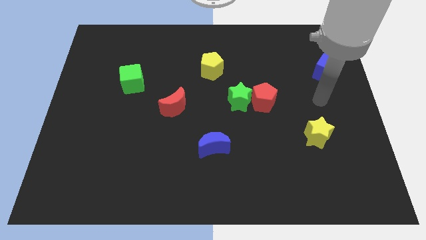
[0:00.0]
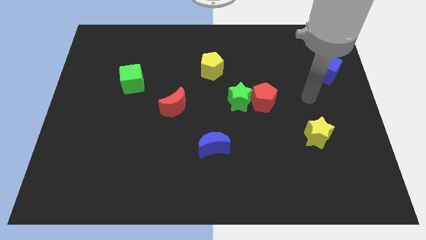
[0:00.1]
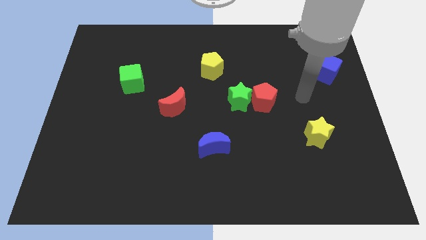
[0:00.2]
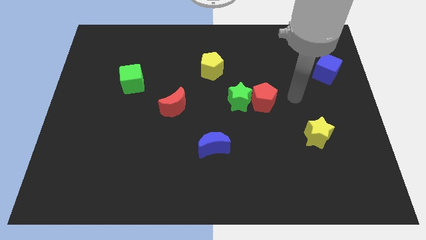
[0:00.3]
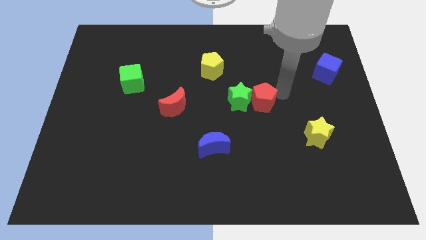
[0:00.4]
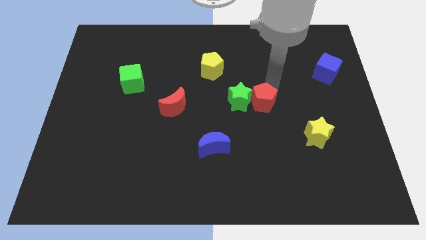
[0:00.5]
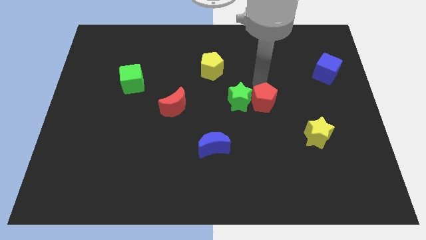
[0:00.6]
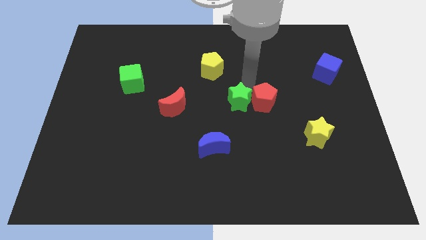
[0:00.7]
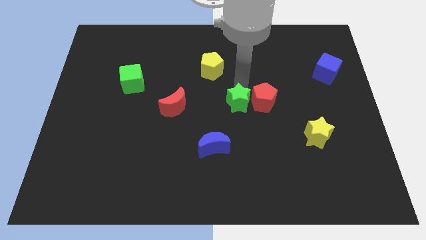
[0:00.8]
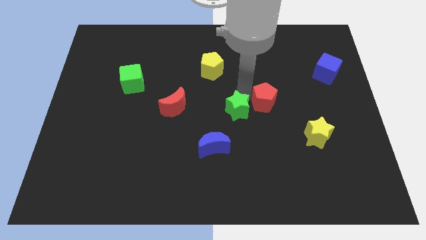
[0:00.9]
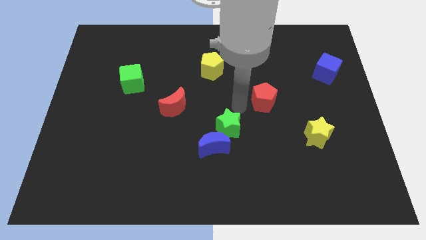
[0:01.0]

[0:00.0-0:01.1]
move the red pentagon away from the green star

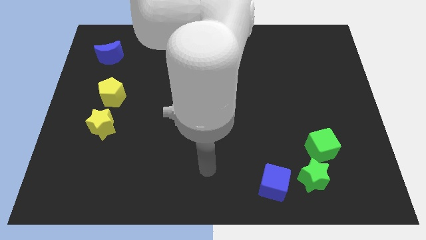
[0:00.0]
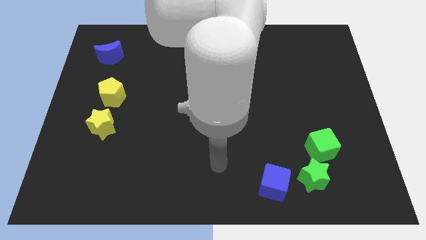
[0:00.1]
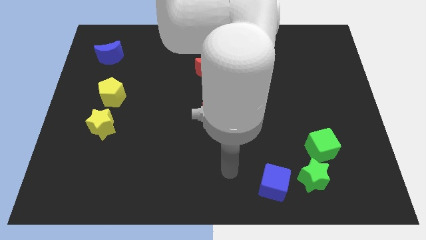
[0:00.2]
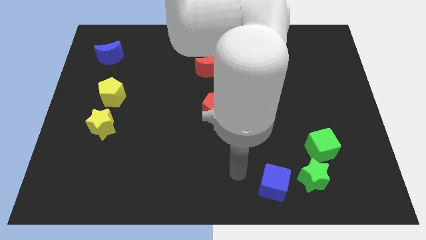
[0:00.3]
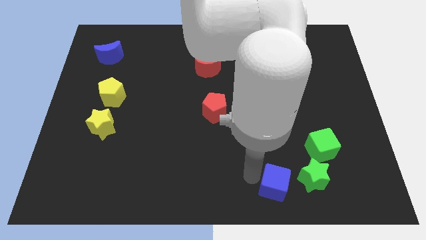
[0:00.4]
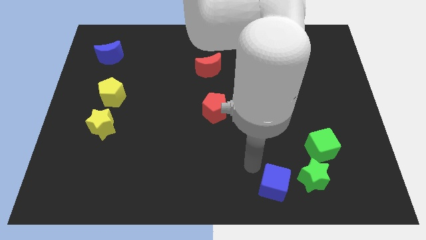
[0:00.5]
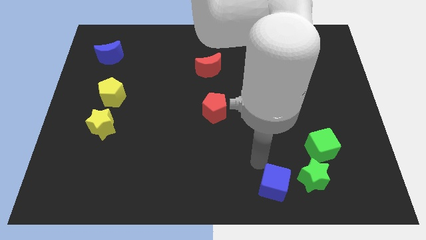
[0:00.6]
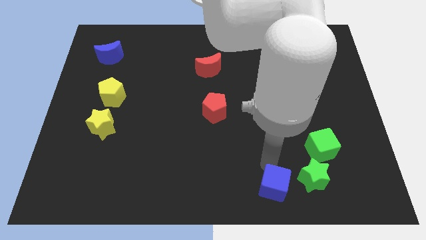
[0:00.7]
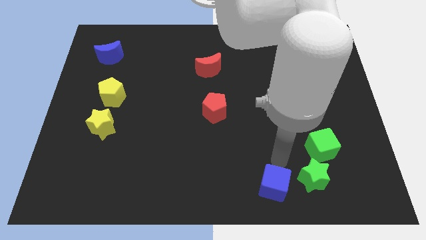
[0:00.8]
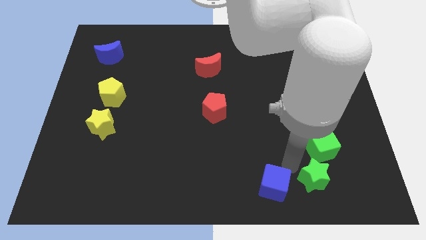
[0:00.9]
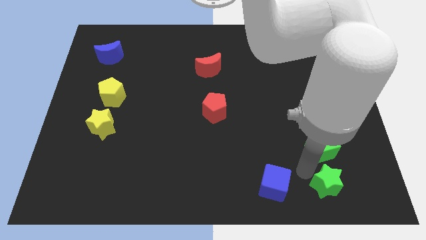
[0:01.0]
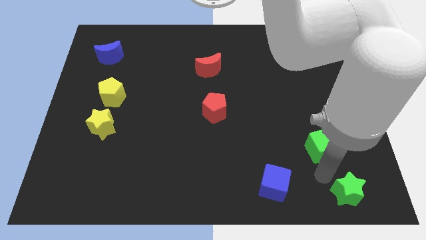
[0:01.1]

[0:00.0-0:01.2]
separate the green cube from the green star

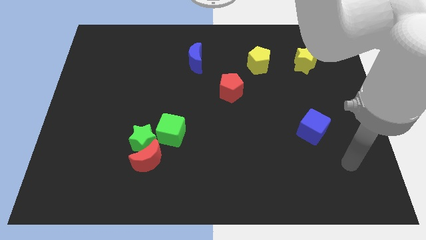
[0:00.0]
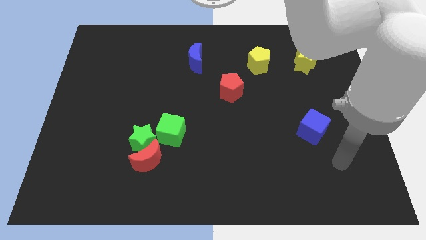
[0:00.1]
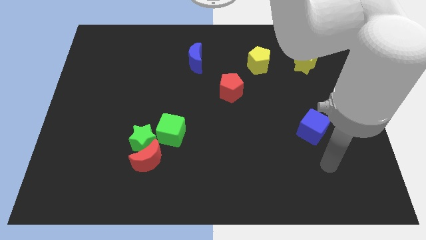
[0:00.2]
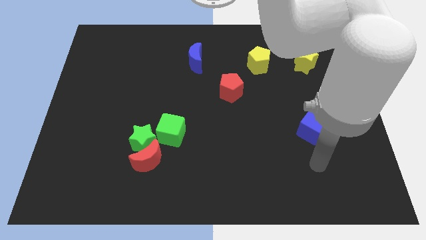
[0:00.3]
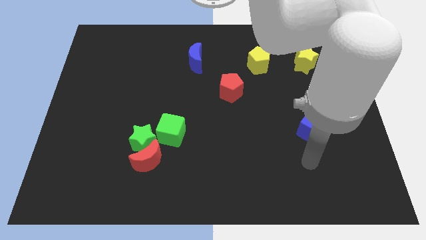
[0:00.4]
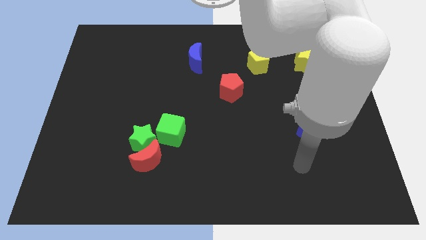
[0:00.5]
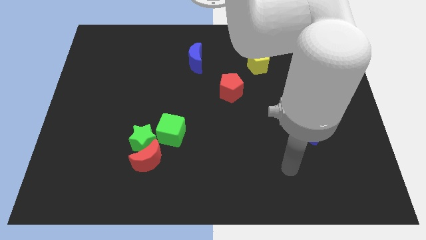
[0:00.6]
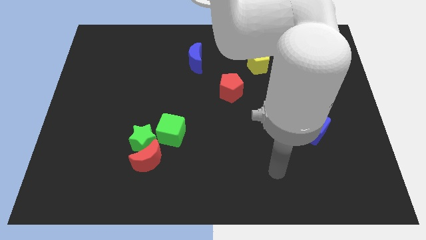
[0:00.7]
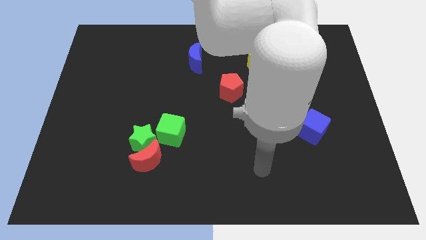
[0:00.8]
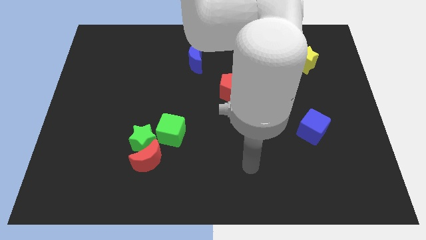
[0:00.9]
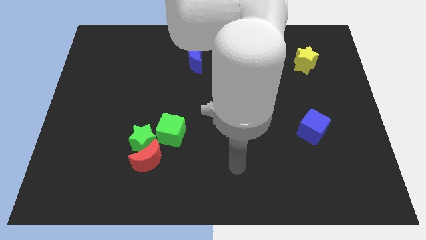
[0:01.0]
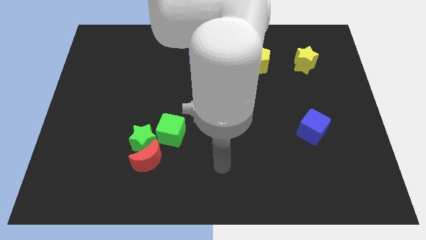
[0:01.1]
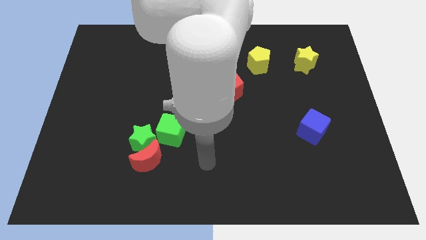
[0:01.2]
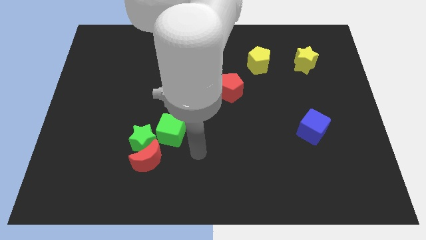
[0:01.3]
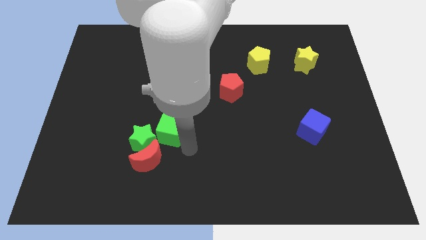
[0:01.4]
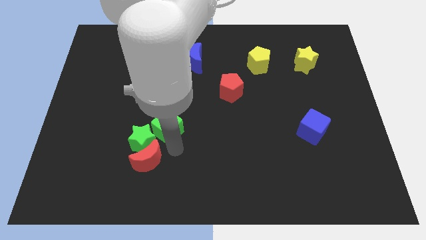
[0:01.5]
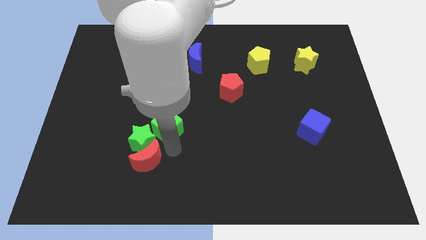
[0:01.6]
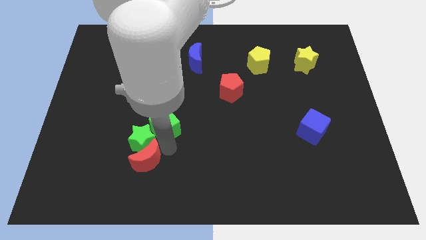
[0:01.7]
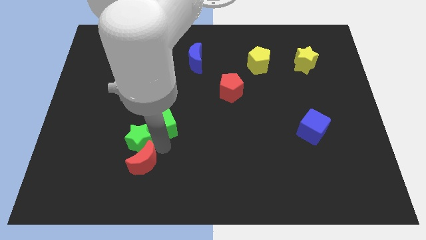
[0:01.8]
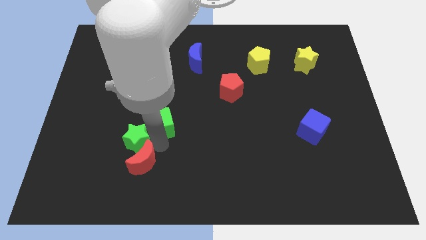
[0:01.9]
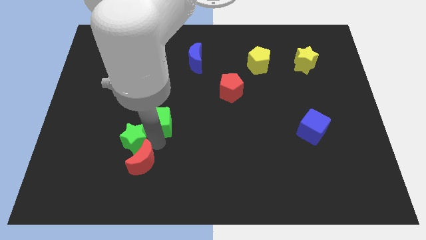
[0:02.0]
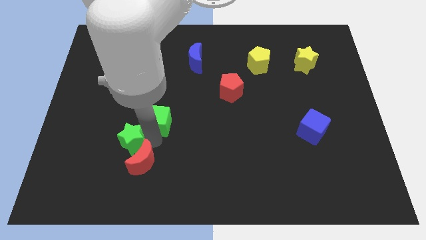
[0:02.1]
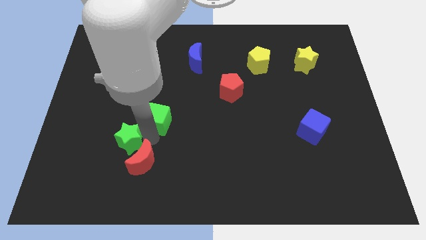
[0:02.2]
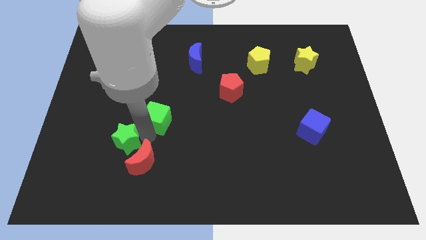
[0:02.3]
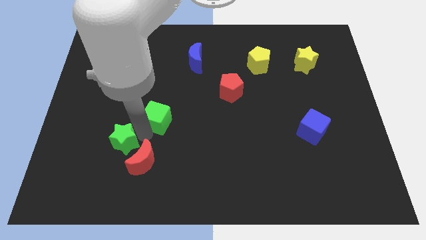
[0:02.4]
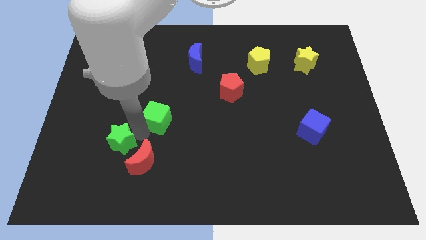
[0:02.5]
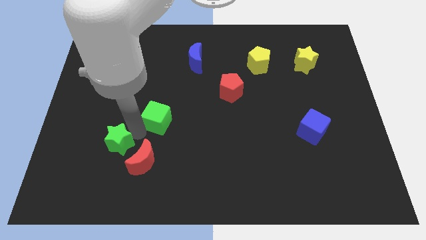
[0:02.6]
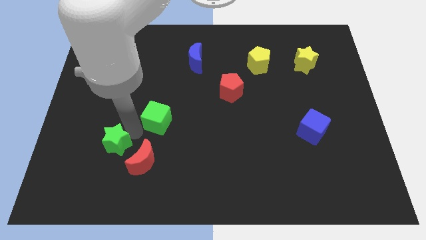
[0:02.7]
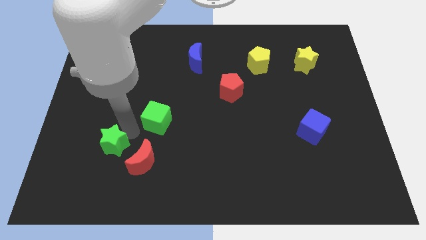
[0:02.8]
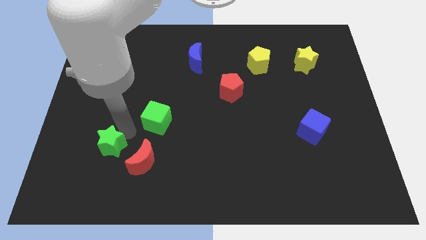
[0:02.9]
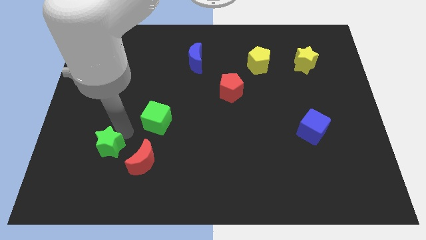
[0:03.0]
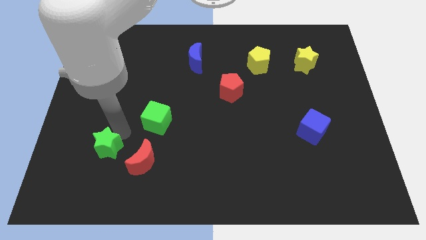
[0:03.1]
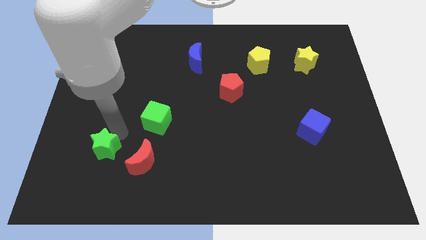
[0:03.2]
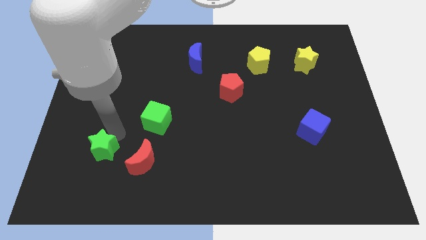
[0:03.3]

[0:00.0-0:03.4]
pull the green star apart from the red moon and green cube

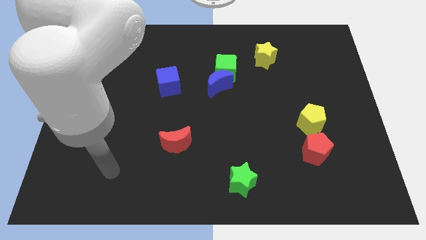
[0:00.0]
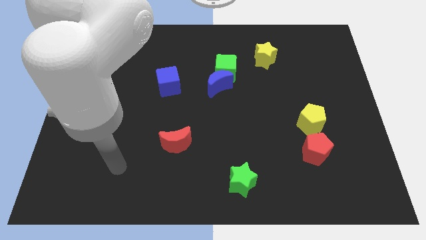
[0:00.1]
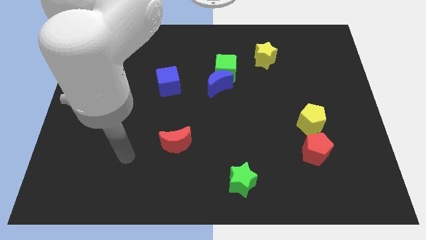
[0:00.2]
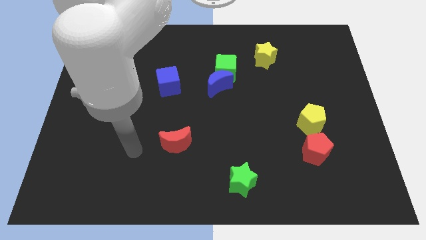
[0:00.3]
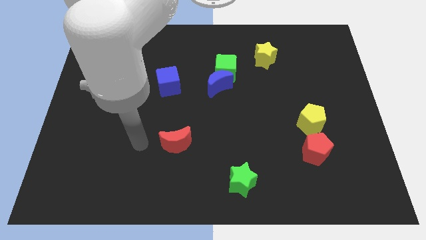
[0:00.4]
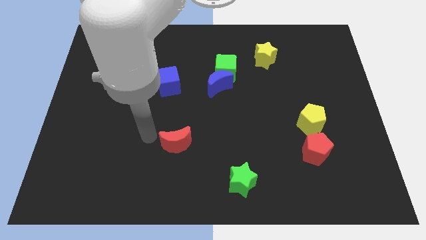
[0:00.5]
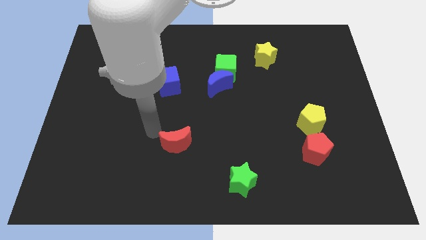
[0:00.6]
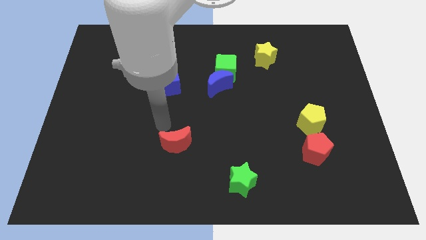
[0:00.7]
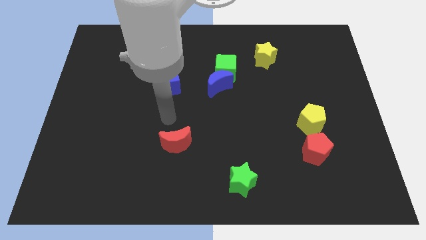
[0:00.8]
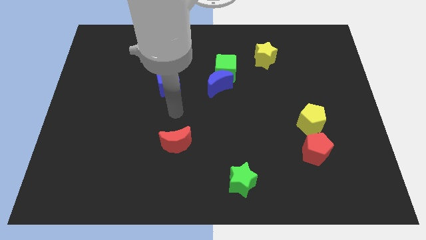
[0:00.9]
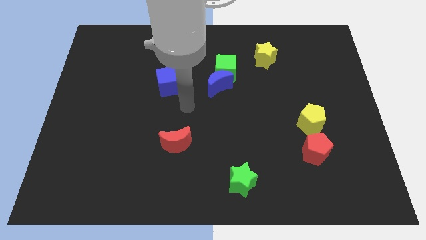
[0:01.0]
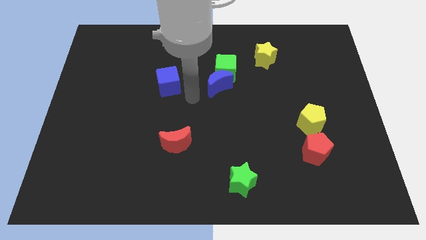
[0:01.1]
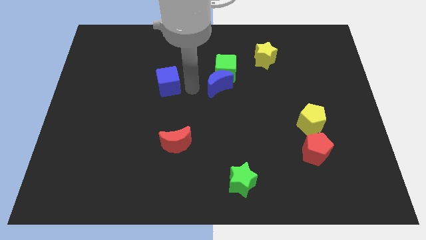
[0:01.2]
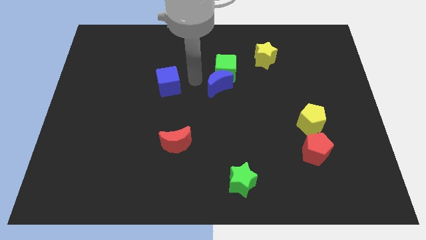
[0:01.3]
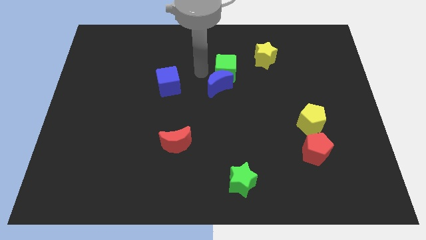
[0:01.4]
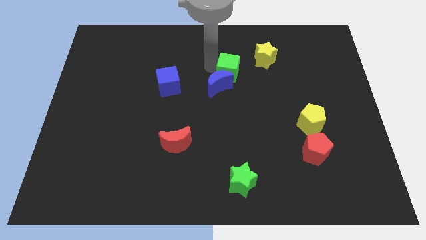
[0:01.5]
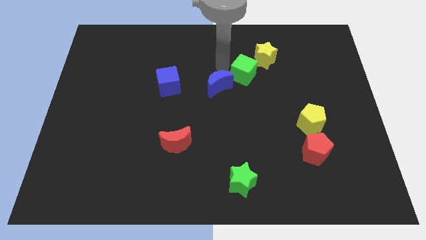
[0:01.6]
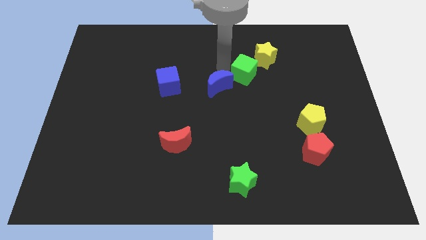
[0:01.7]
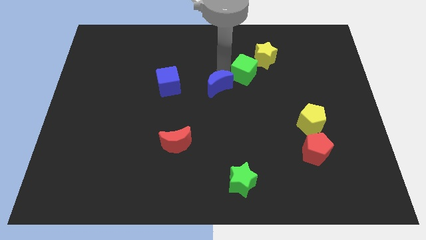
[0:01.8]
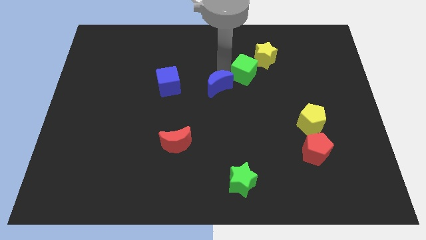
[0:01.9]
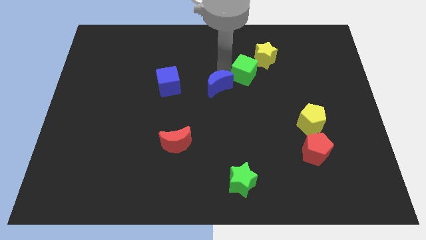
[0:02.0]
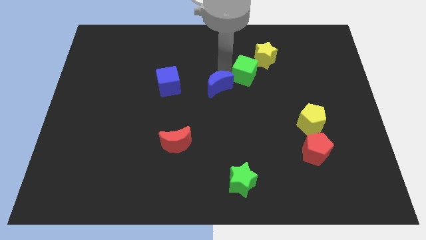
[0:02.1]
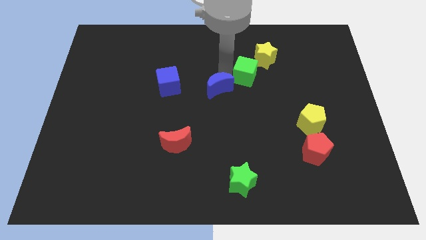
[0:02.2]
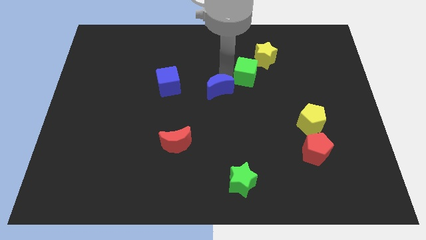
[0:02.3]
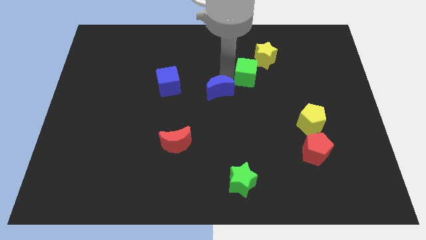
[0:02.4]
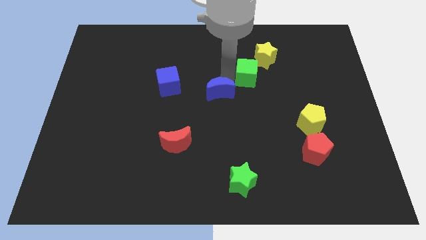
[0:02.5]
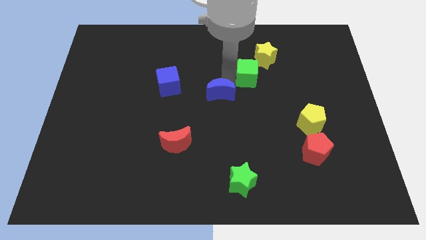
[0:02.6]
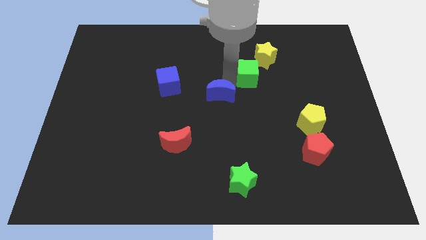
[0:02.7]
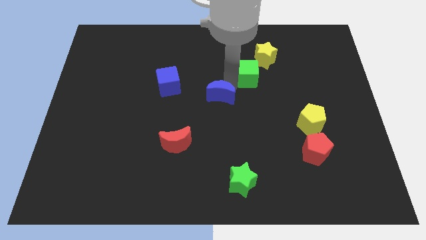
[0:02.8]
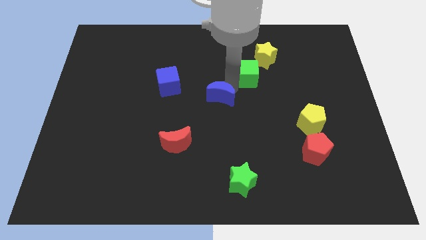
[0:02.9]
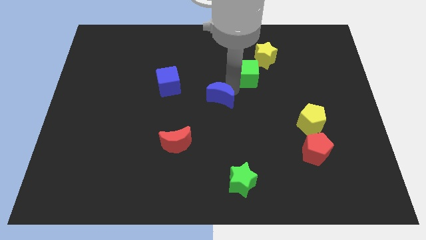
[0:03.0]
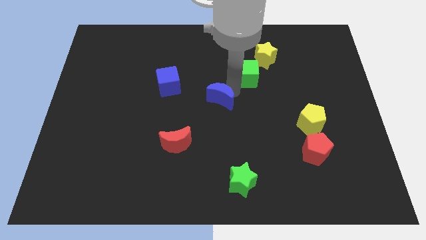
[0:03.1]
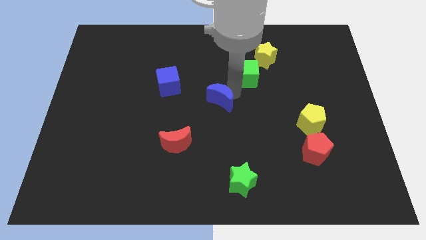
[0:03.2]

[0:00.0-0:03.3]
pull the blue moon apart from the green cube

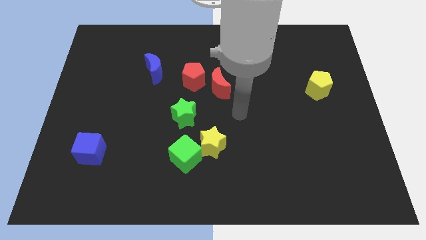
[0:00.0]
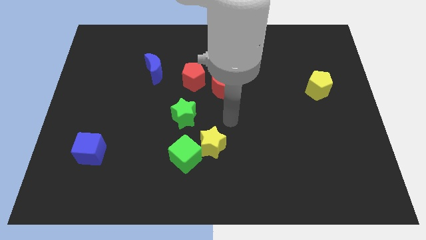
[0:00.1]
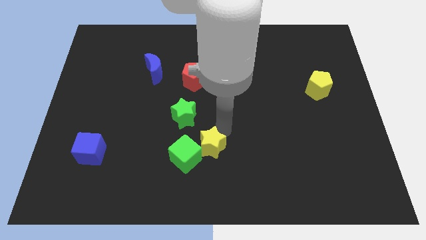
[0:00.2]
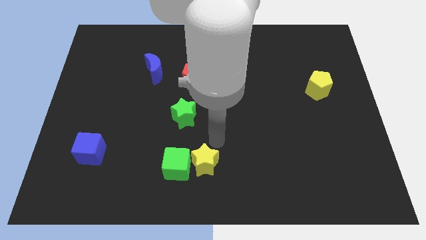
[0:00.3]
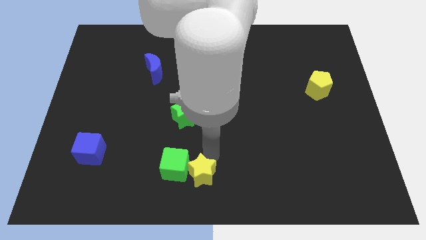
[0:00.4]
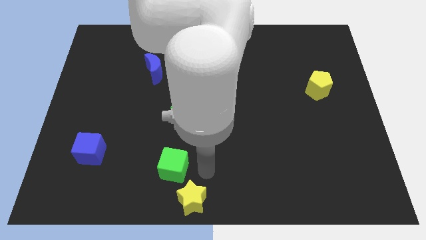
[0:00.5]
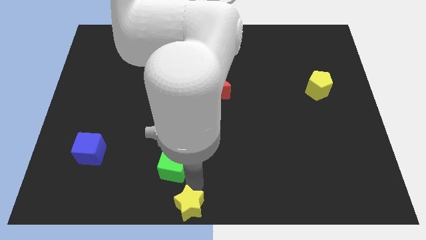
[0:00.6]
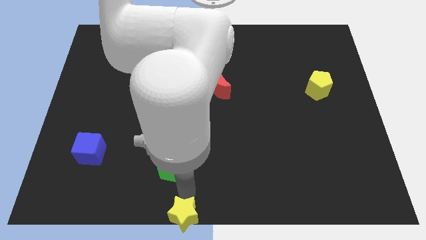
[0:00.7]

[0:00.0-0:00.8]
move the green cube away from the yellow star
